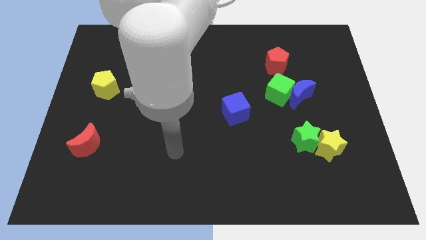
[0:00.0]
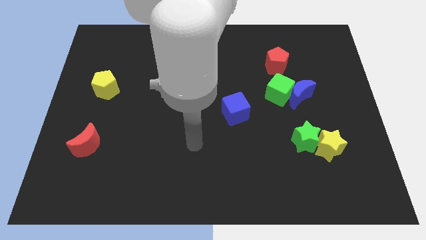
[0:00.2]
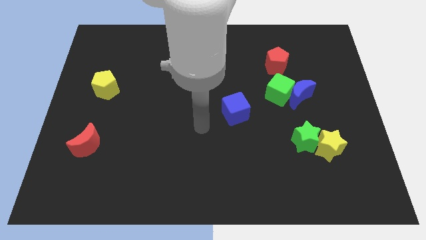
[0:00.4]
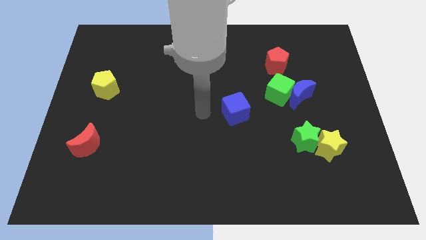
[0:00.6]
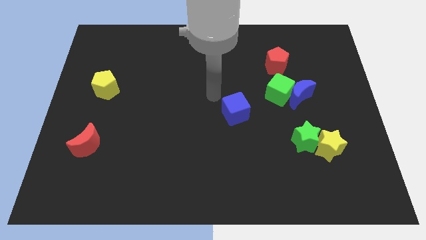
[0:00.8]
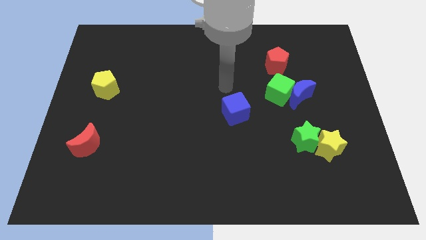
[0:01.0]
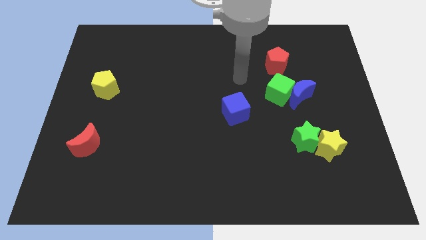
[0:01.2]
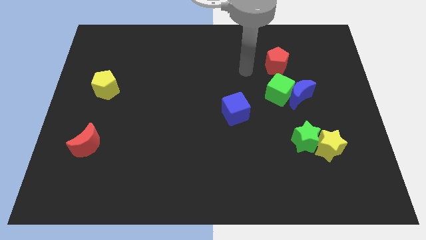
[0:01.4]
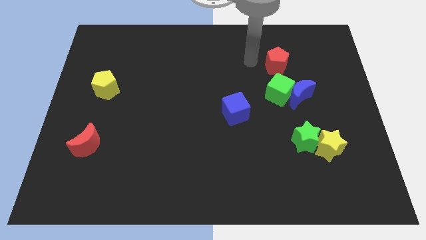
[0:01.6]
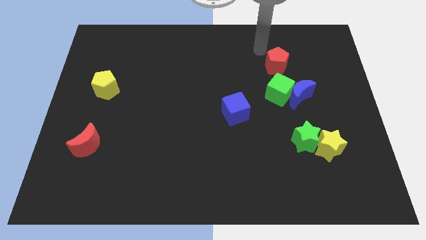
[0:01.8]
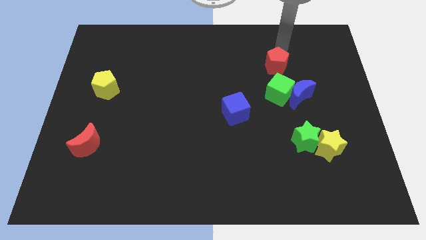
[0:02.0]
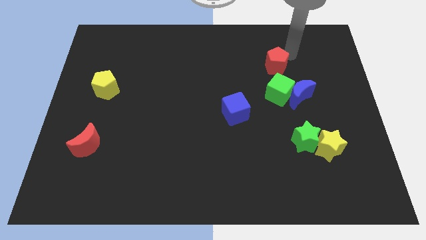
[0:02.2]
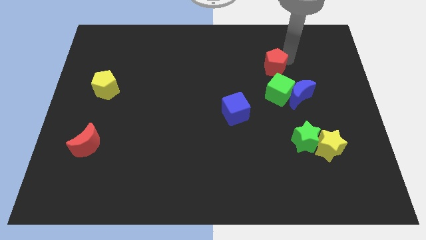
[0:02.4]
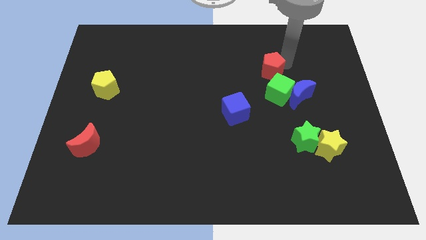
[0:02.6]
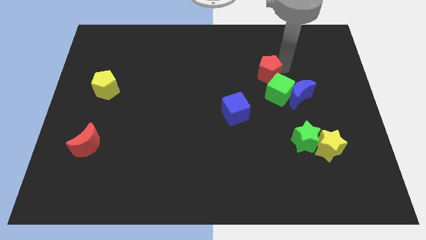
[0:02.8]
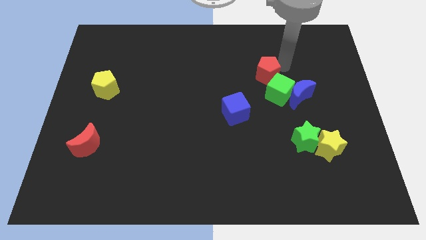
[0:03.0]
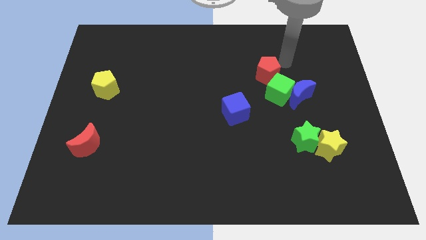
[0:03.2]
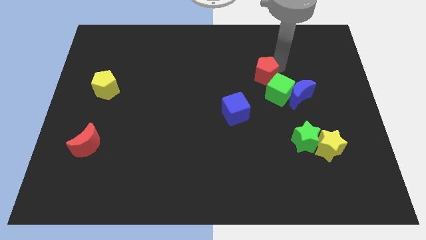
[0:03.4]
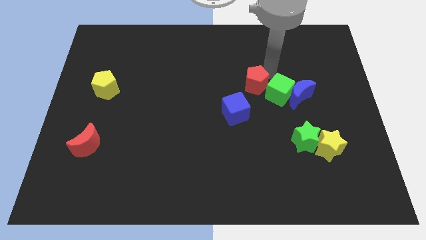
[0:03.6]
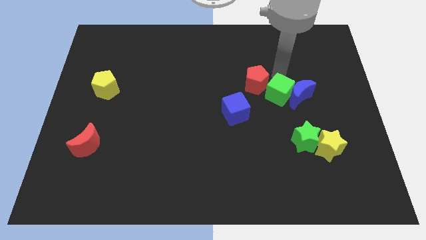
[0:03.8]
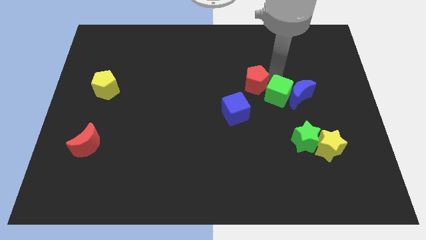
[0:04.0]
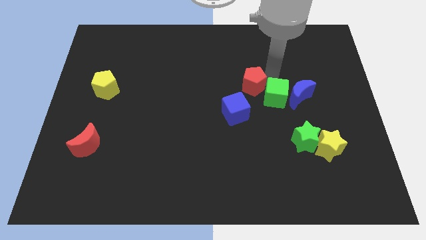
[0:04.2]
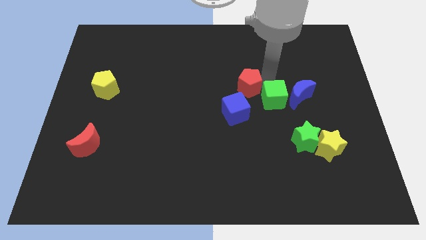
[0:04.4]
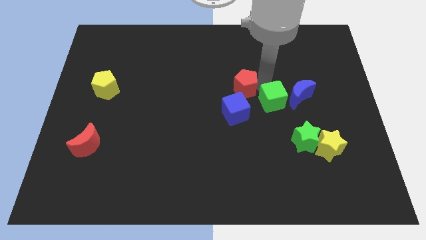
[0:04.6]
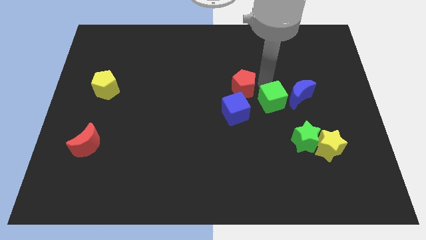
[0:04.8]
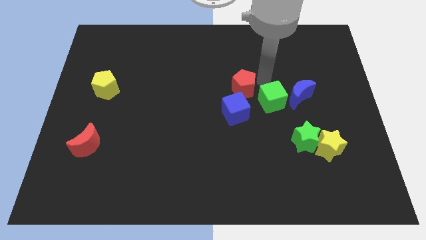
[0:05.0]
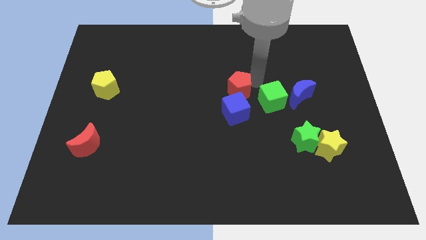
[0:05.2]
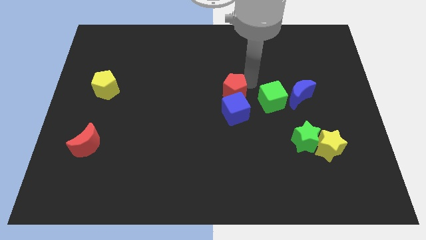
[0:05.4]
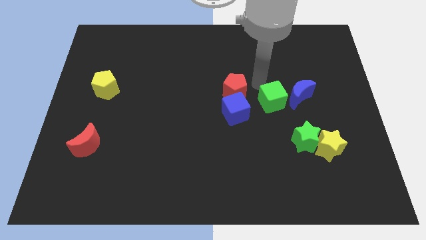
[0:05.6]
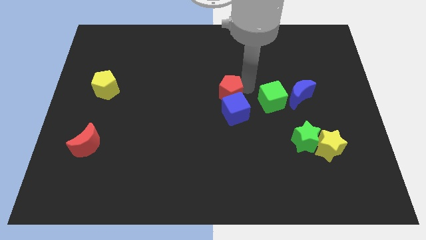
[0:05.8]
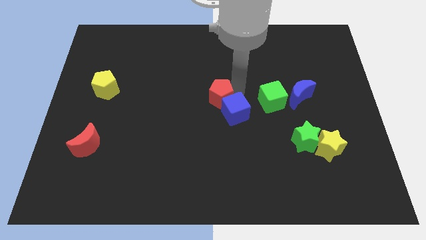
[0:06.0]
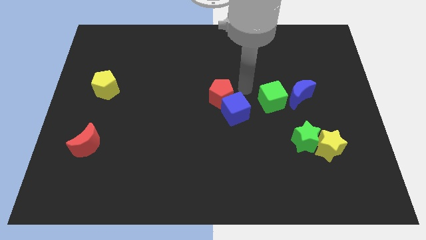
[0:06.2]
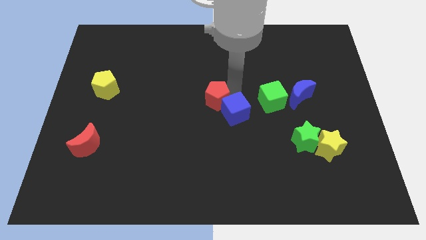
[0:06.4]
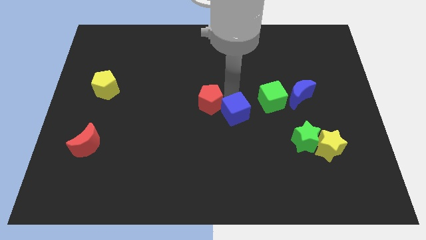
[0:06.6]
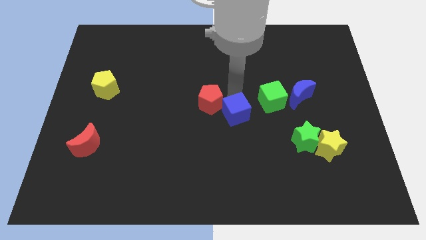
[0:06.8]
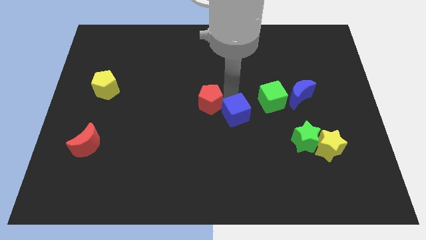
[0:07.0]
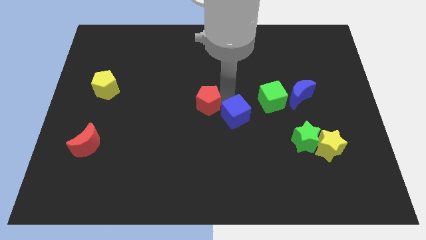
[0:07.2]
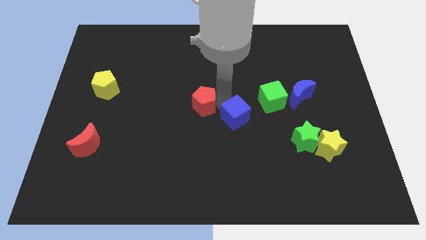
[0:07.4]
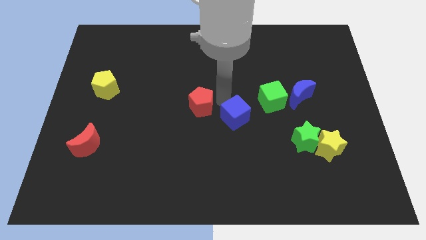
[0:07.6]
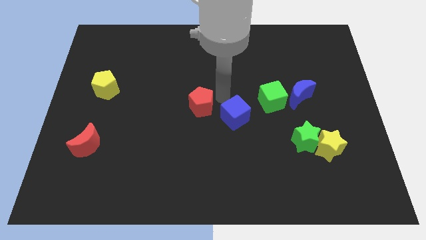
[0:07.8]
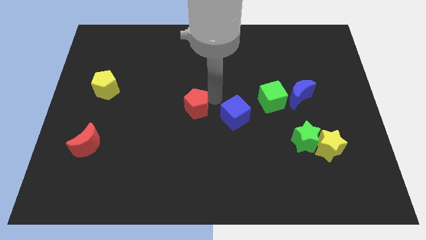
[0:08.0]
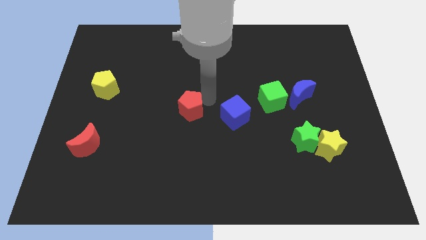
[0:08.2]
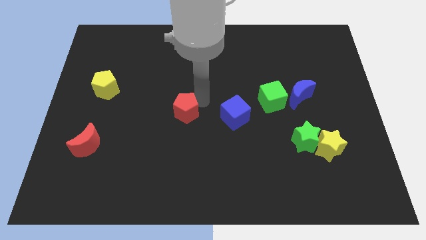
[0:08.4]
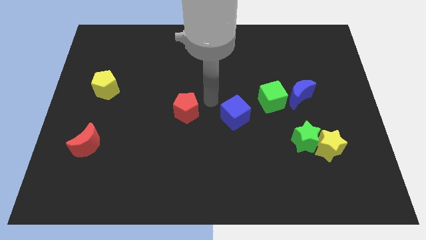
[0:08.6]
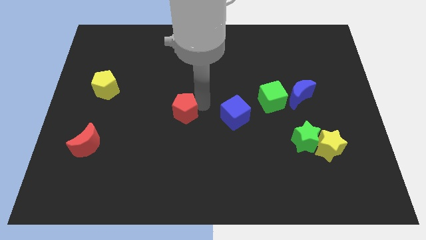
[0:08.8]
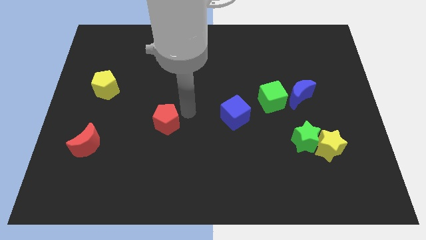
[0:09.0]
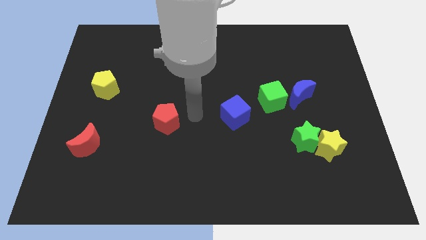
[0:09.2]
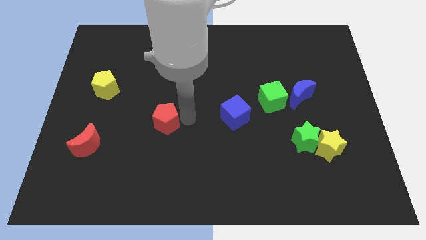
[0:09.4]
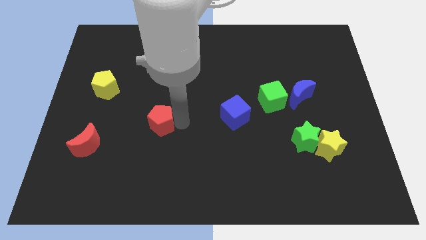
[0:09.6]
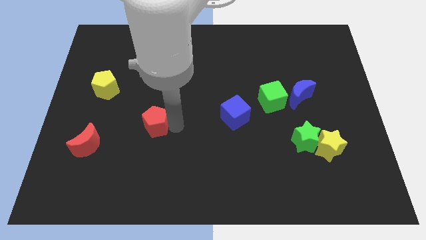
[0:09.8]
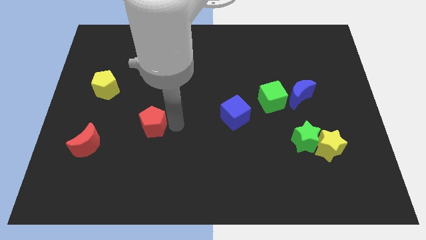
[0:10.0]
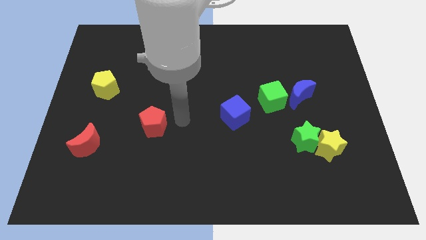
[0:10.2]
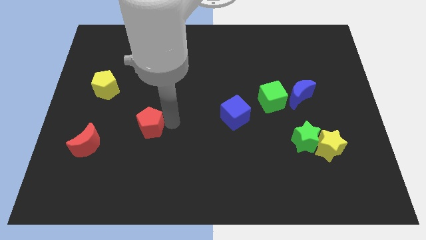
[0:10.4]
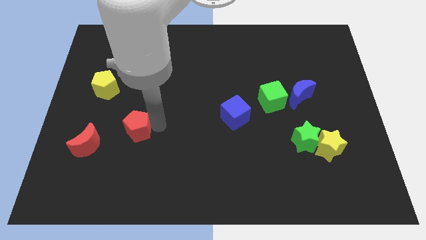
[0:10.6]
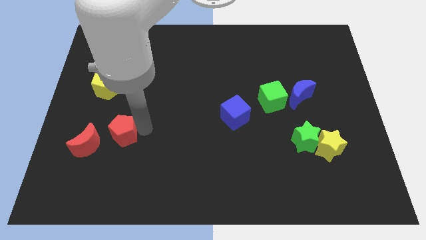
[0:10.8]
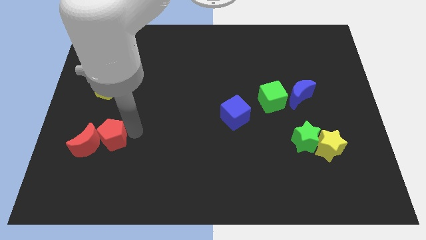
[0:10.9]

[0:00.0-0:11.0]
slide the red pentagon towards the red moon

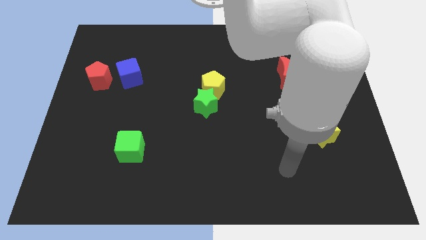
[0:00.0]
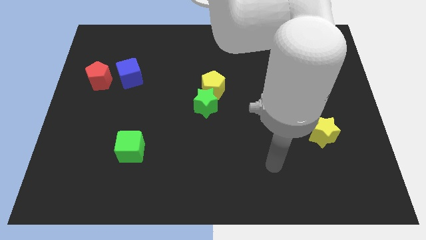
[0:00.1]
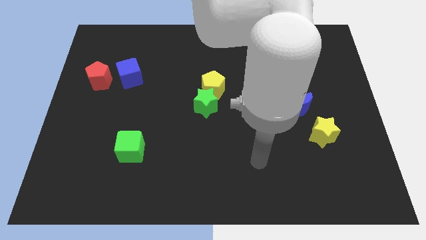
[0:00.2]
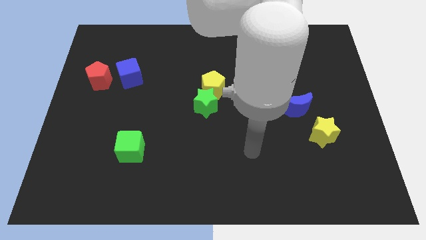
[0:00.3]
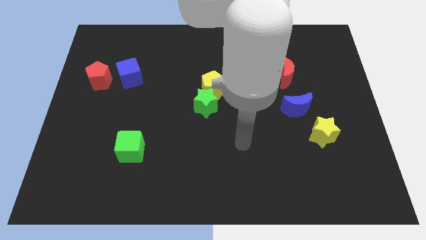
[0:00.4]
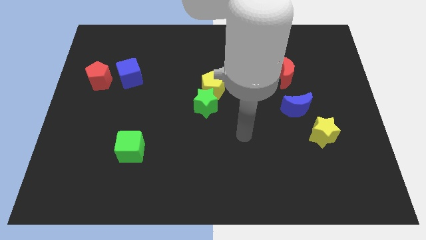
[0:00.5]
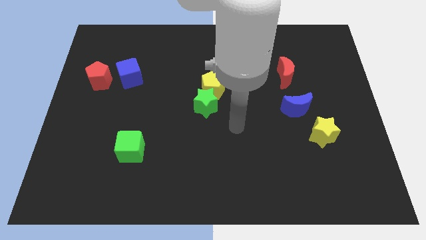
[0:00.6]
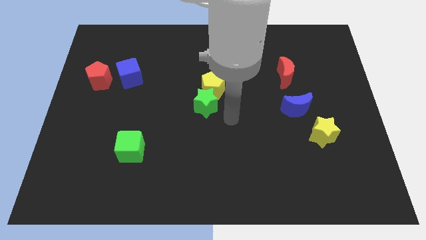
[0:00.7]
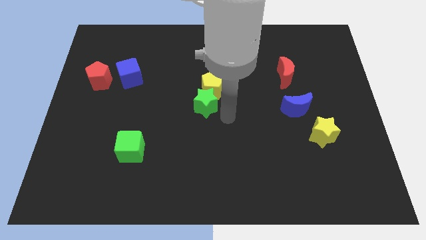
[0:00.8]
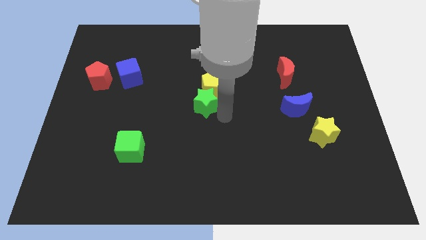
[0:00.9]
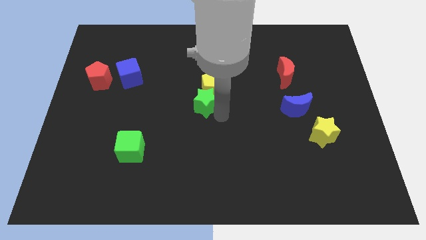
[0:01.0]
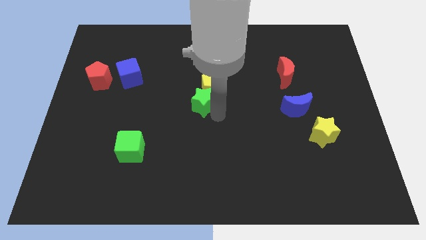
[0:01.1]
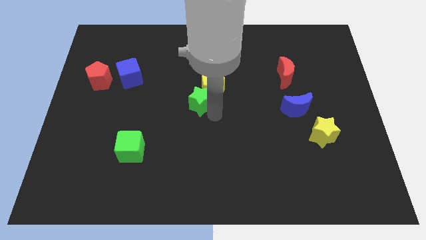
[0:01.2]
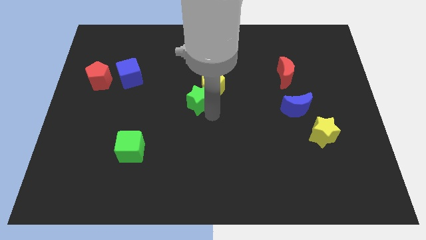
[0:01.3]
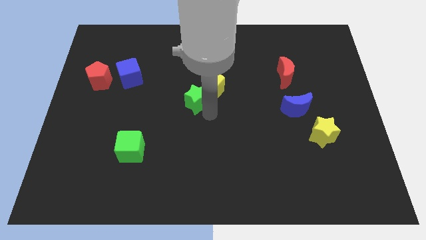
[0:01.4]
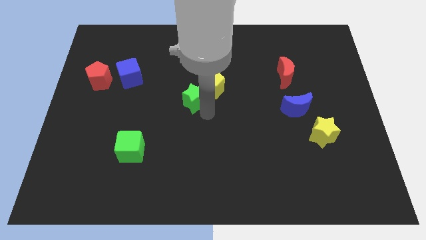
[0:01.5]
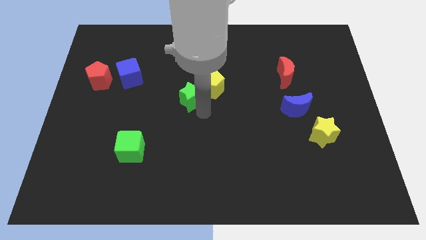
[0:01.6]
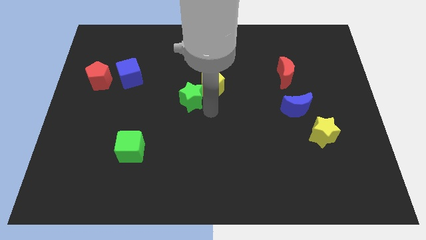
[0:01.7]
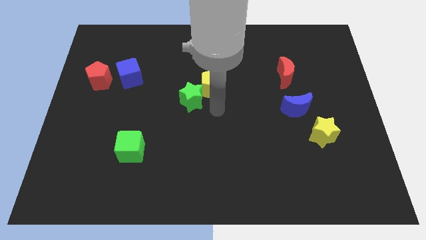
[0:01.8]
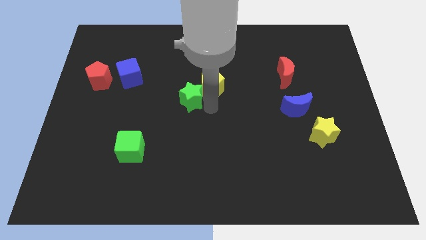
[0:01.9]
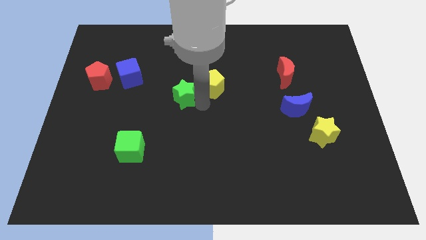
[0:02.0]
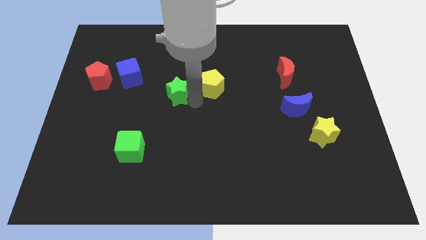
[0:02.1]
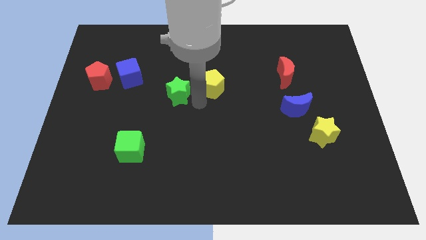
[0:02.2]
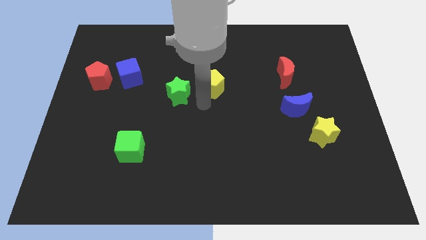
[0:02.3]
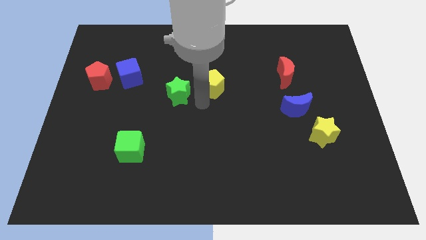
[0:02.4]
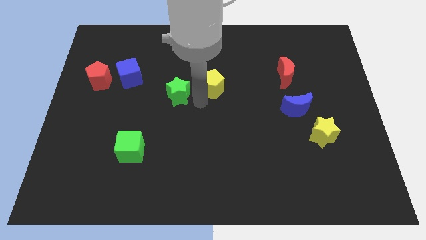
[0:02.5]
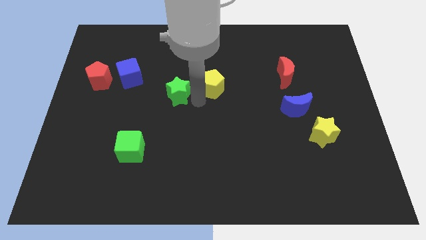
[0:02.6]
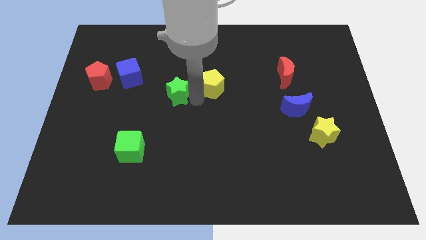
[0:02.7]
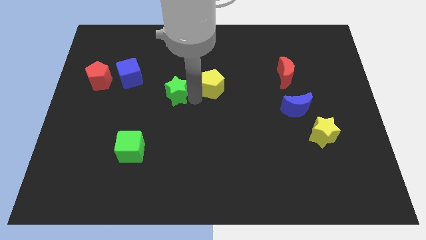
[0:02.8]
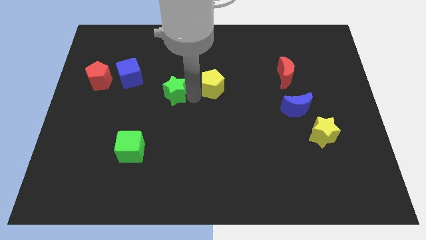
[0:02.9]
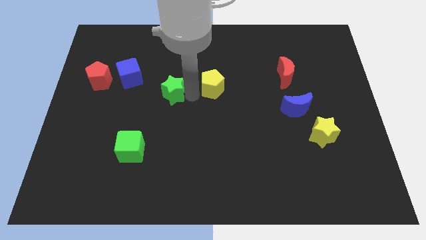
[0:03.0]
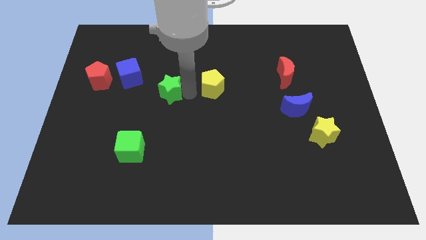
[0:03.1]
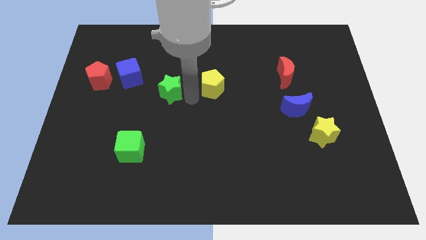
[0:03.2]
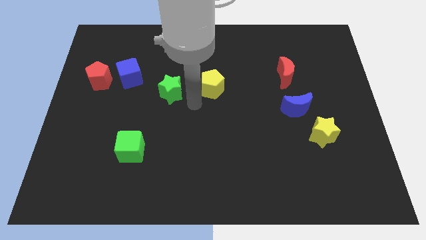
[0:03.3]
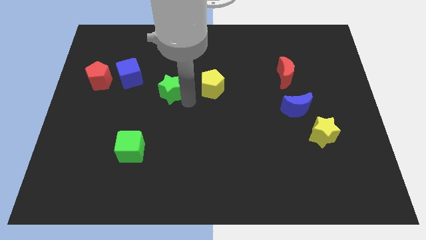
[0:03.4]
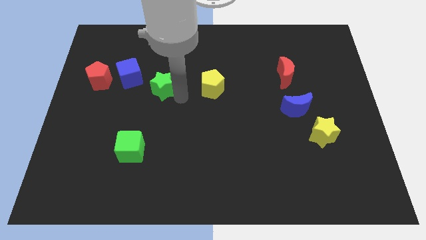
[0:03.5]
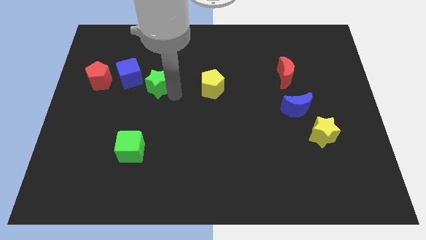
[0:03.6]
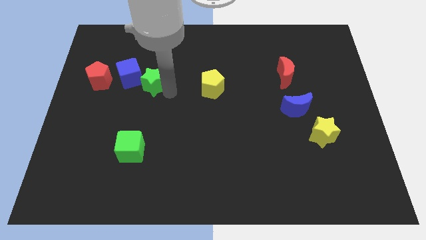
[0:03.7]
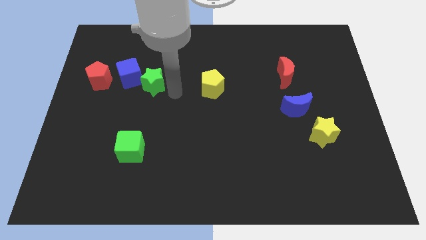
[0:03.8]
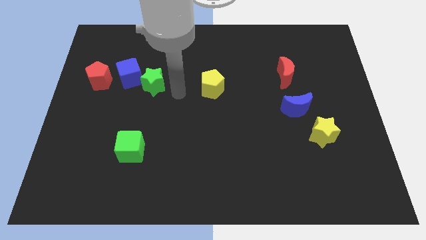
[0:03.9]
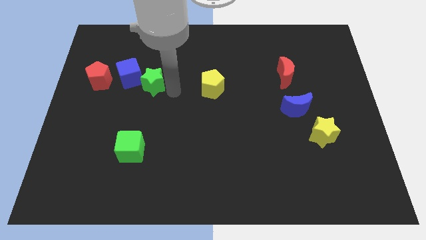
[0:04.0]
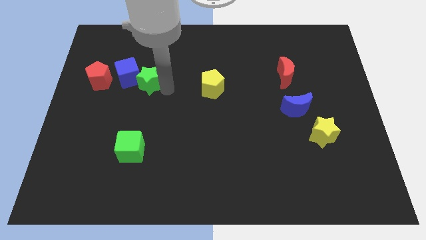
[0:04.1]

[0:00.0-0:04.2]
push the green star close to the blue cube
